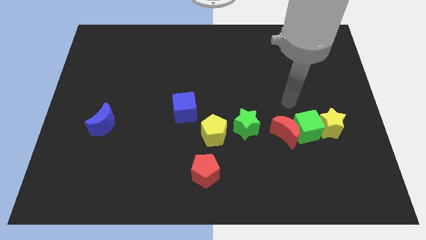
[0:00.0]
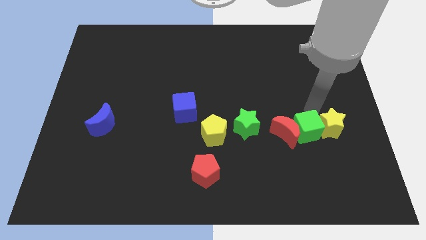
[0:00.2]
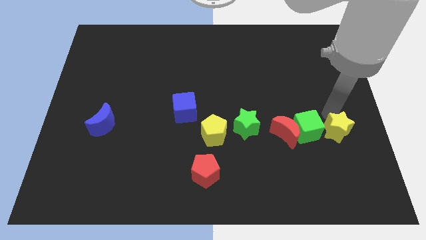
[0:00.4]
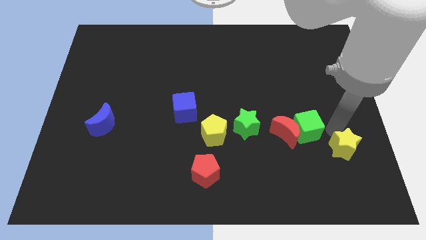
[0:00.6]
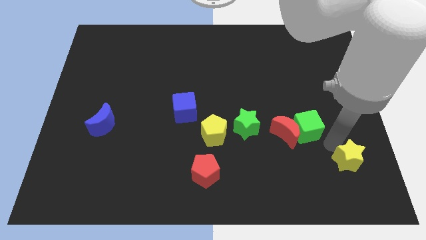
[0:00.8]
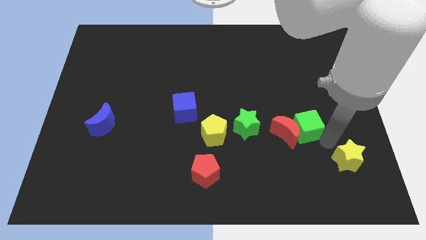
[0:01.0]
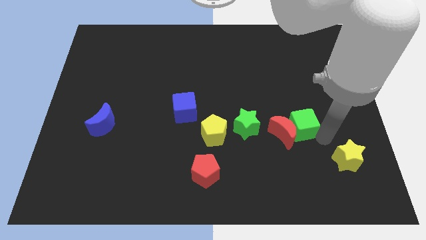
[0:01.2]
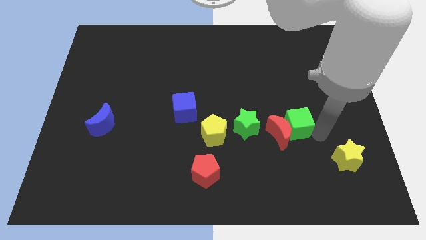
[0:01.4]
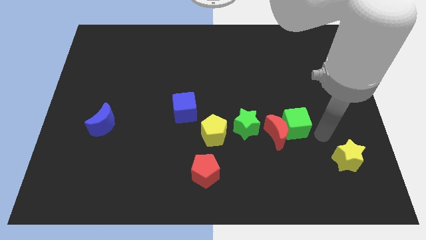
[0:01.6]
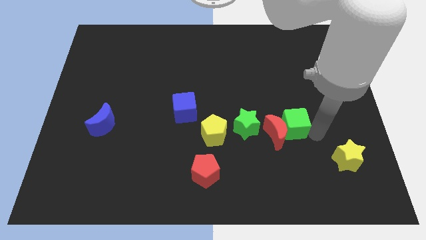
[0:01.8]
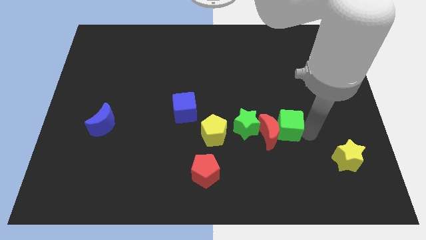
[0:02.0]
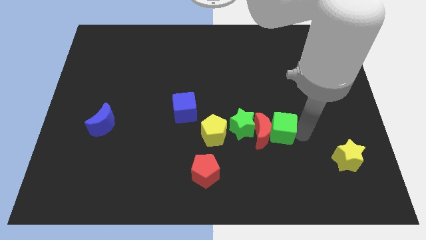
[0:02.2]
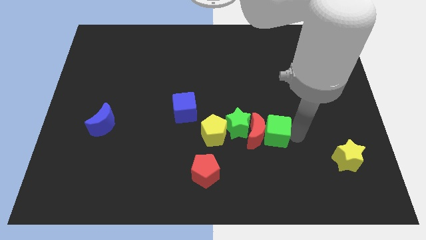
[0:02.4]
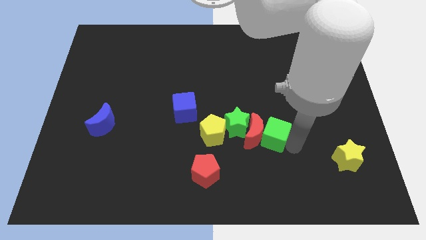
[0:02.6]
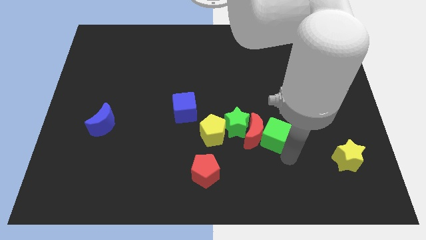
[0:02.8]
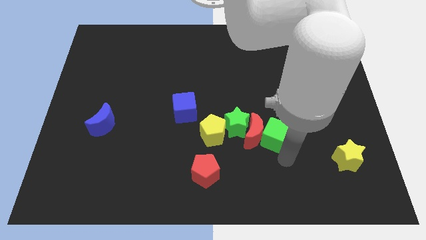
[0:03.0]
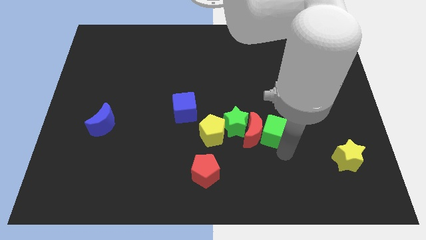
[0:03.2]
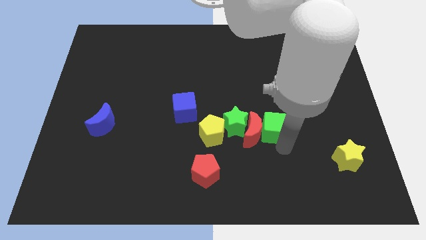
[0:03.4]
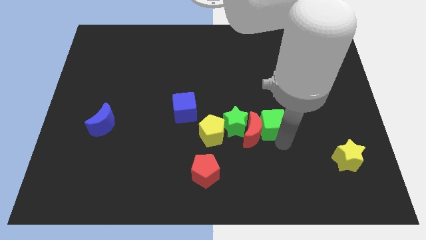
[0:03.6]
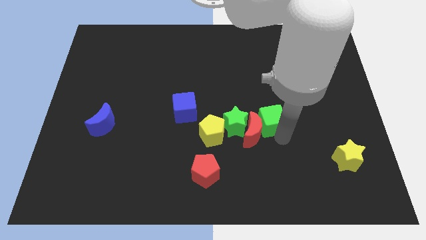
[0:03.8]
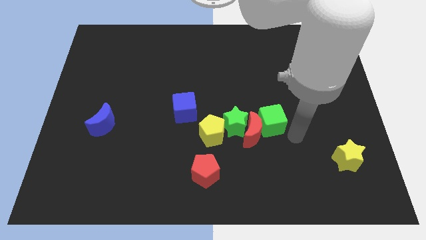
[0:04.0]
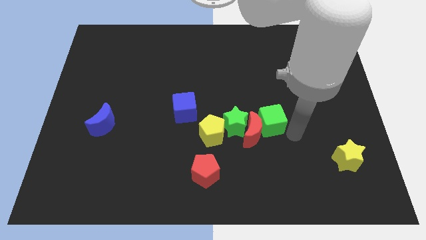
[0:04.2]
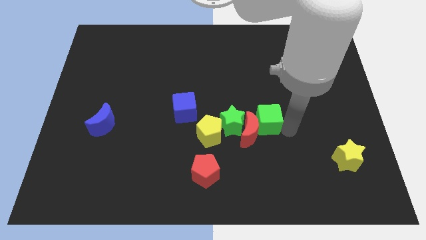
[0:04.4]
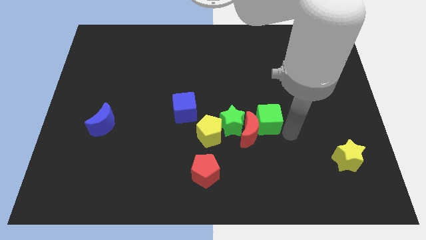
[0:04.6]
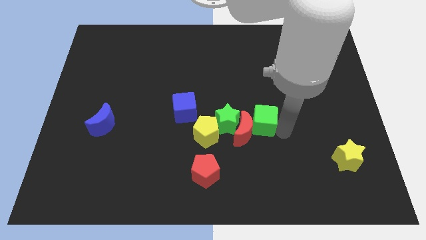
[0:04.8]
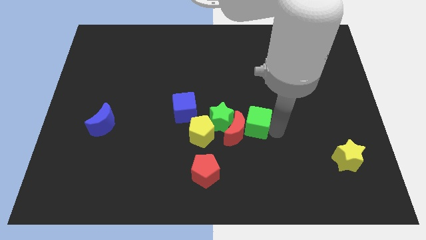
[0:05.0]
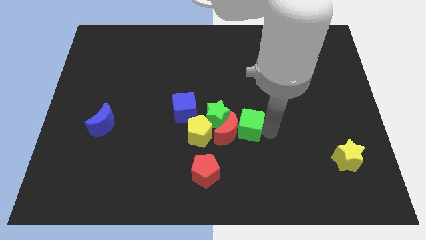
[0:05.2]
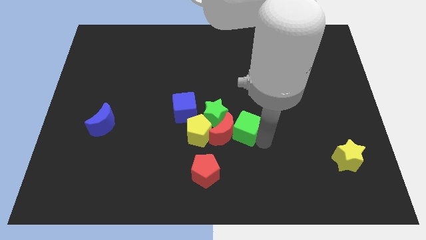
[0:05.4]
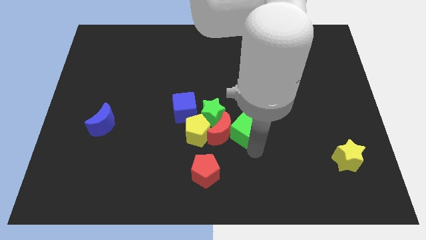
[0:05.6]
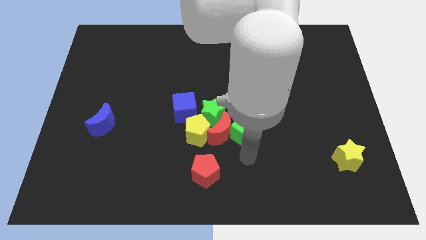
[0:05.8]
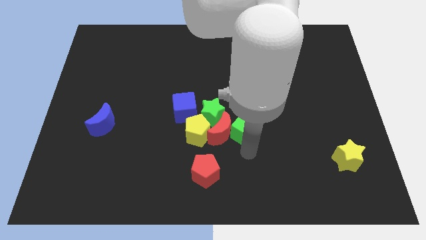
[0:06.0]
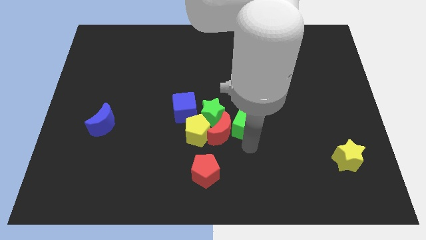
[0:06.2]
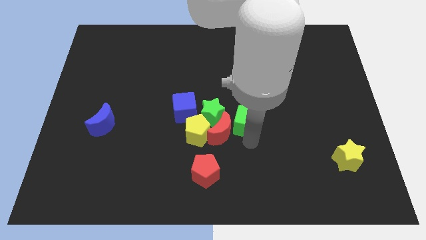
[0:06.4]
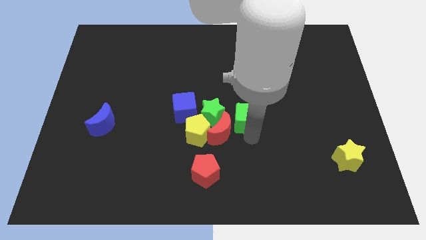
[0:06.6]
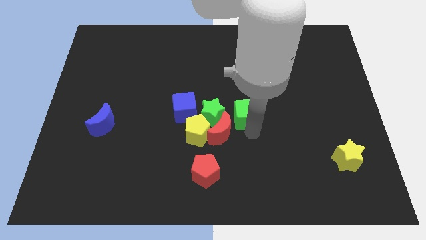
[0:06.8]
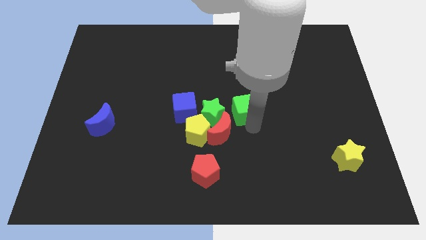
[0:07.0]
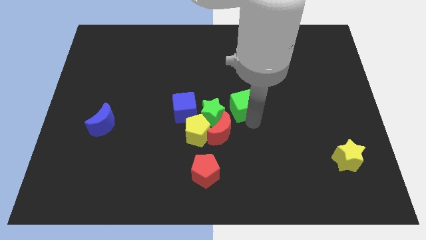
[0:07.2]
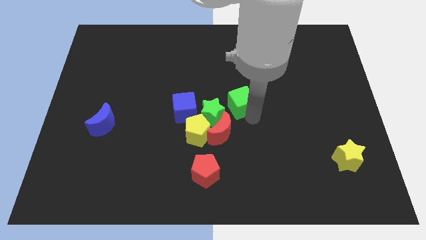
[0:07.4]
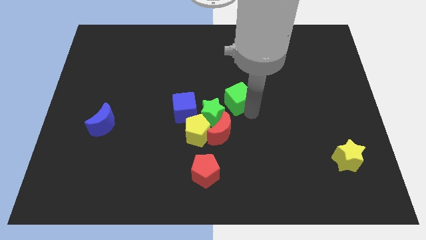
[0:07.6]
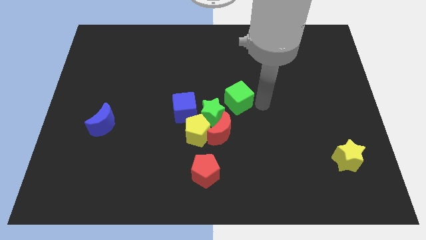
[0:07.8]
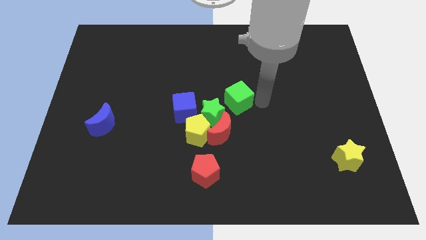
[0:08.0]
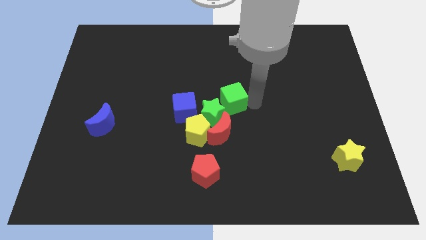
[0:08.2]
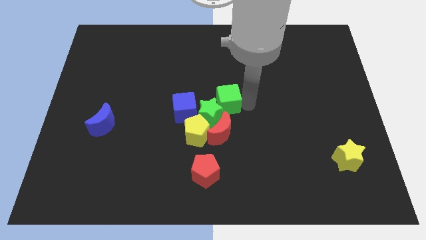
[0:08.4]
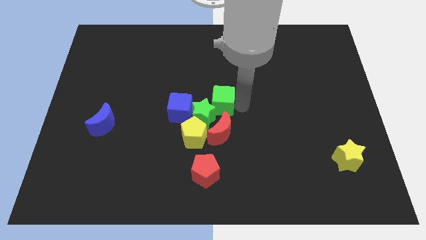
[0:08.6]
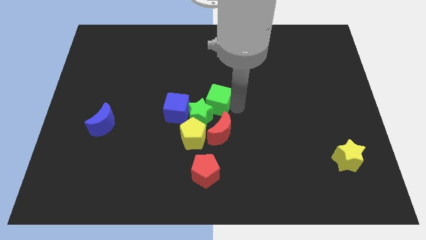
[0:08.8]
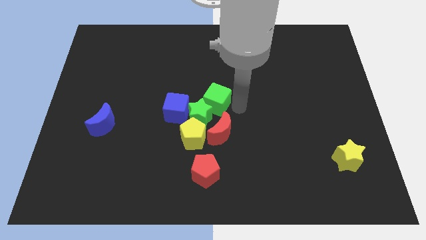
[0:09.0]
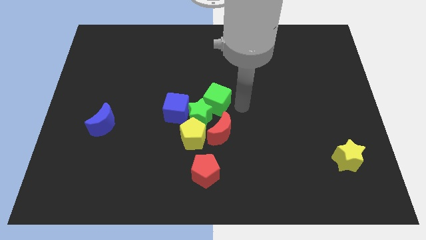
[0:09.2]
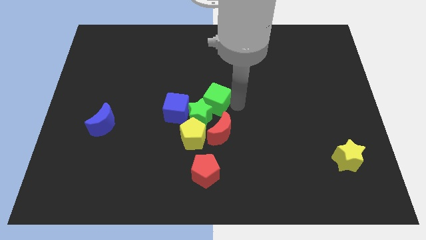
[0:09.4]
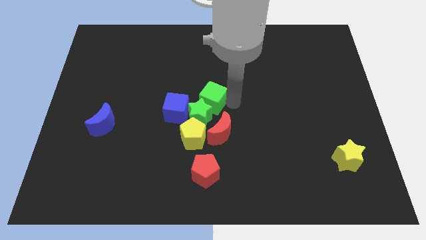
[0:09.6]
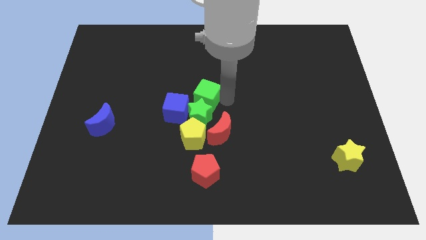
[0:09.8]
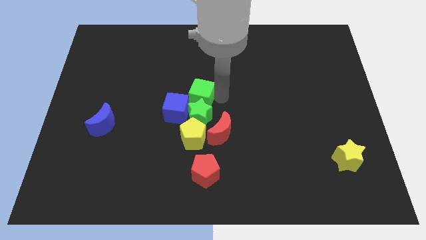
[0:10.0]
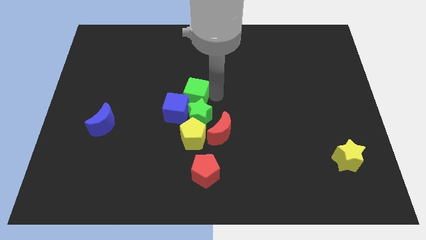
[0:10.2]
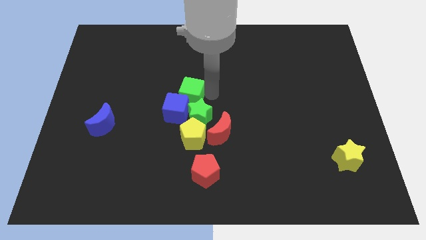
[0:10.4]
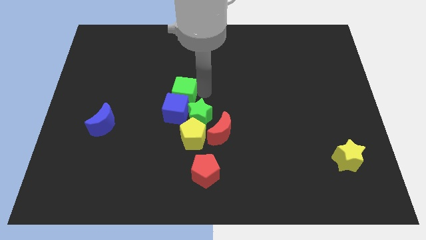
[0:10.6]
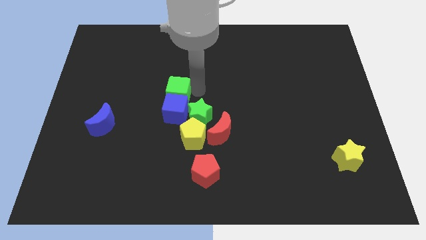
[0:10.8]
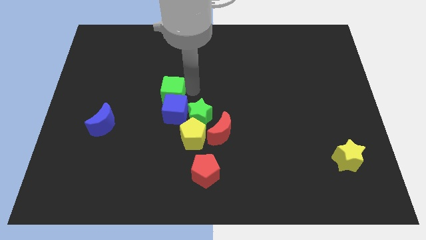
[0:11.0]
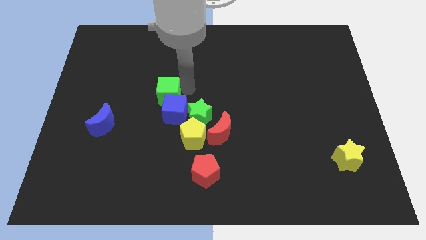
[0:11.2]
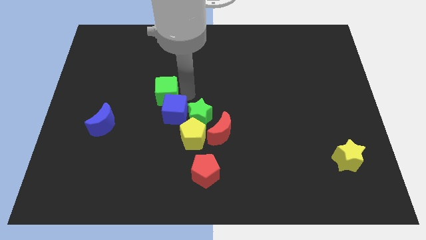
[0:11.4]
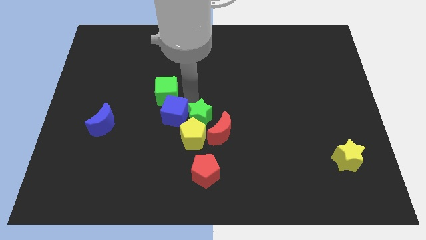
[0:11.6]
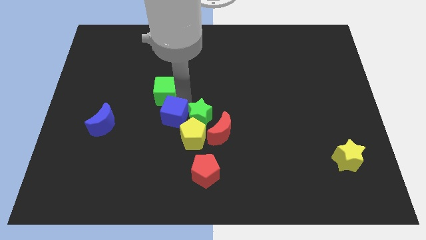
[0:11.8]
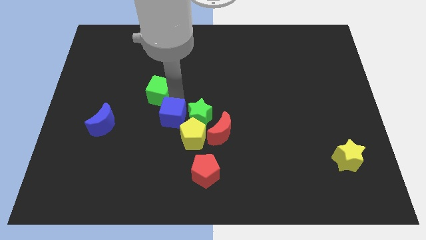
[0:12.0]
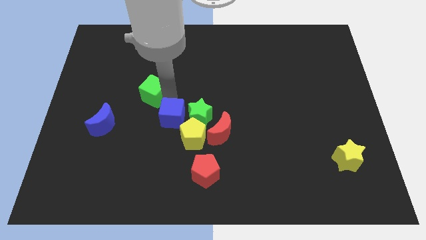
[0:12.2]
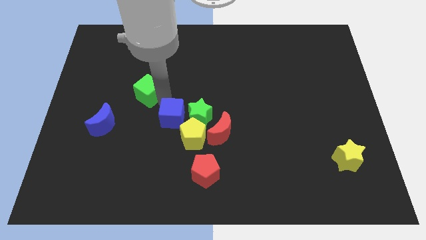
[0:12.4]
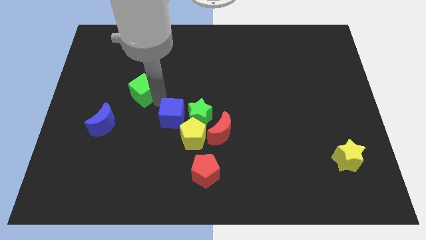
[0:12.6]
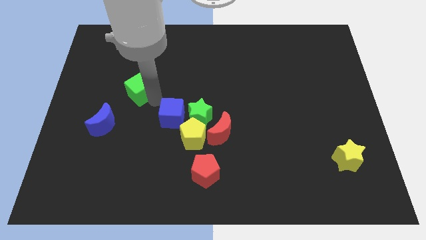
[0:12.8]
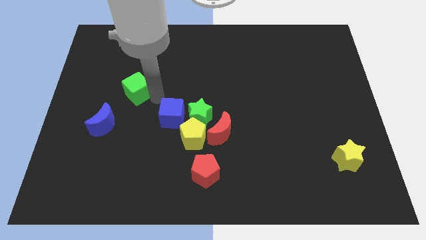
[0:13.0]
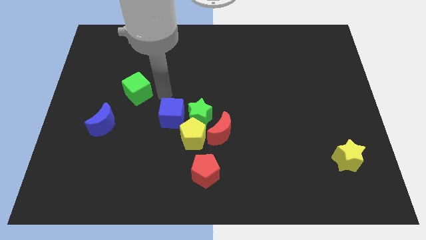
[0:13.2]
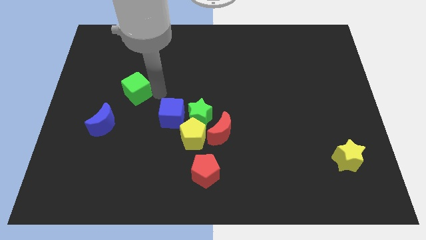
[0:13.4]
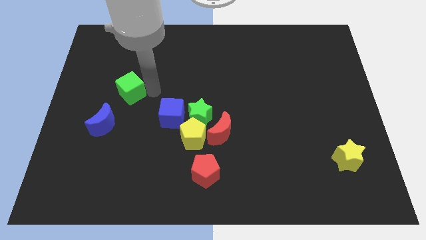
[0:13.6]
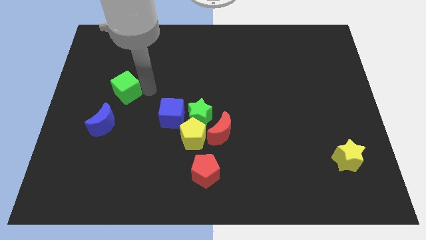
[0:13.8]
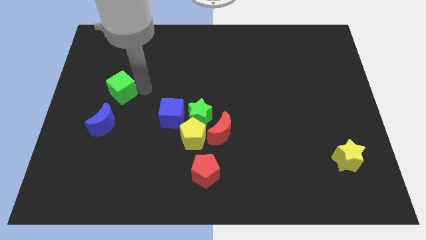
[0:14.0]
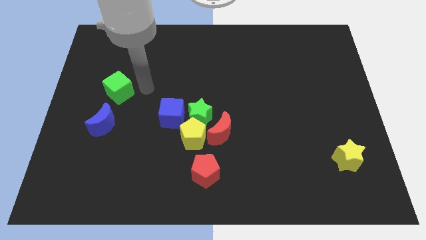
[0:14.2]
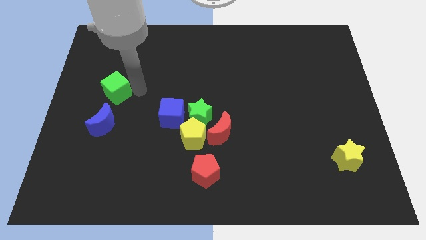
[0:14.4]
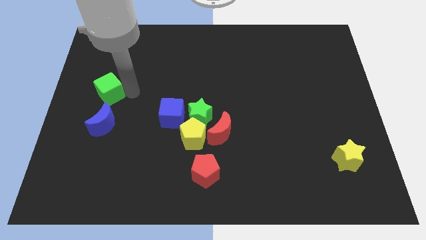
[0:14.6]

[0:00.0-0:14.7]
push the green cube to the center left

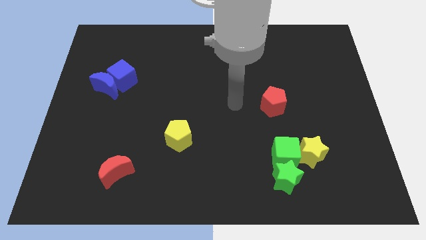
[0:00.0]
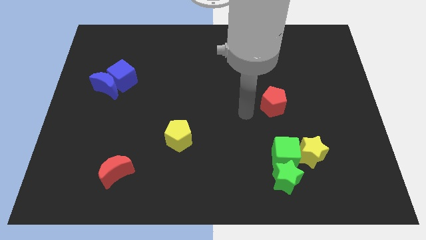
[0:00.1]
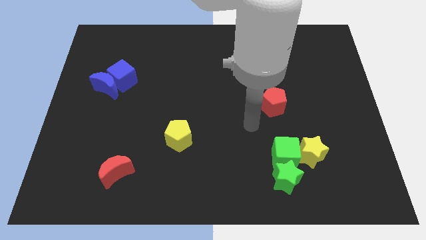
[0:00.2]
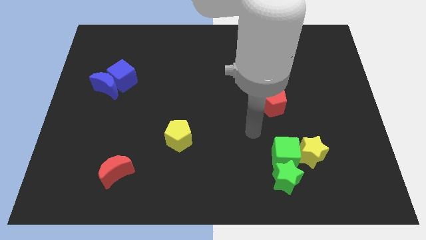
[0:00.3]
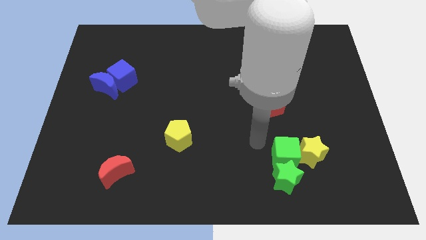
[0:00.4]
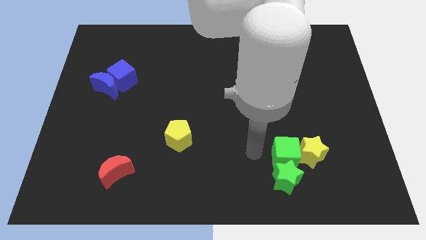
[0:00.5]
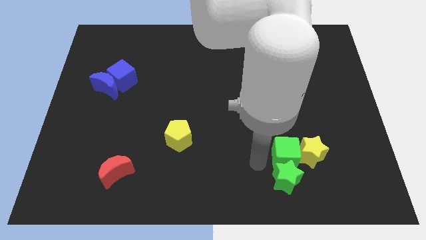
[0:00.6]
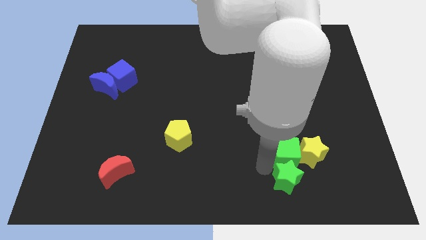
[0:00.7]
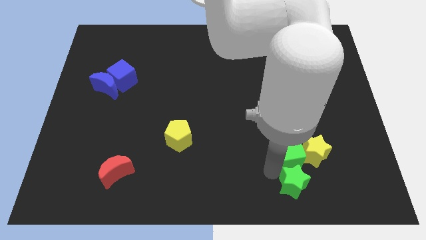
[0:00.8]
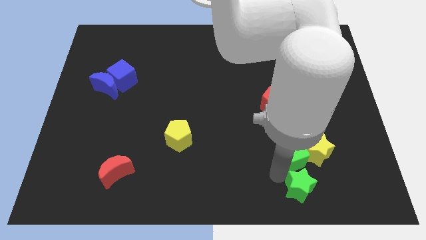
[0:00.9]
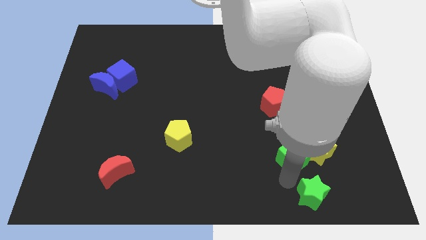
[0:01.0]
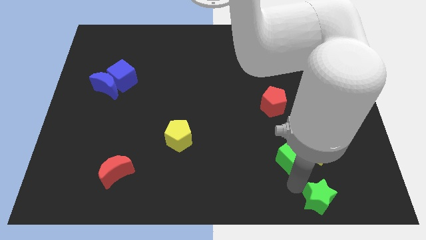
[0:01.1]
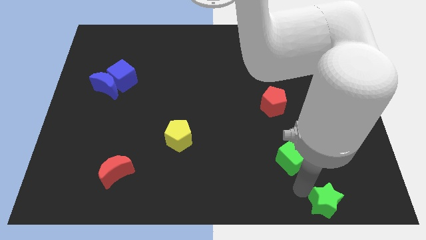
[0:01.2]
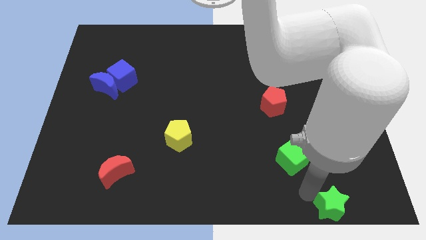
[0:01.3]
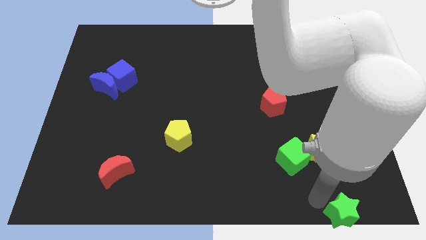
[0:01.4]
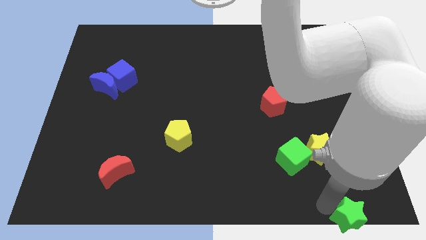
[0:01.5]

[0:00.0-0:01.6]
slide the green star to the bottom right
